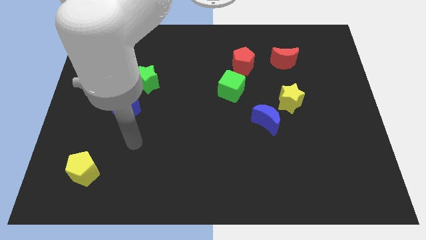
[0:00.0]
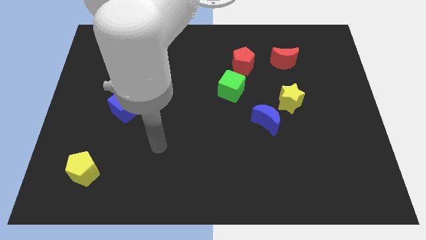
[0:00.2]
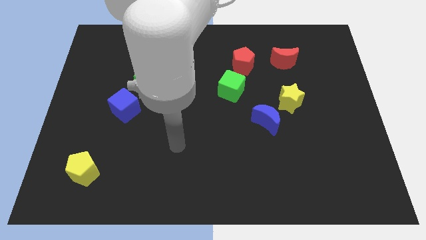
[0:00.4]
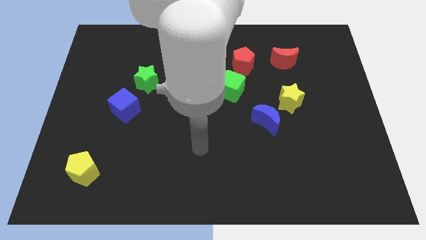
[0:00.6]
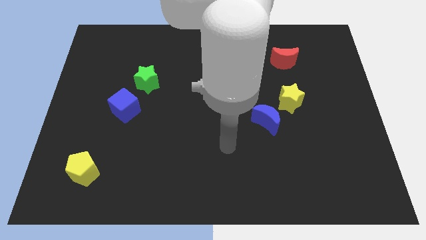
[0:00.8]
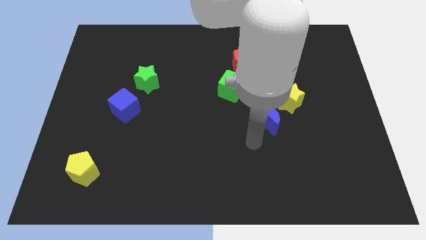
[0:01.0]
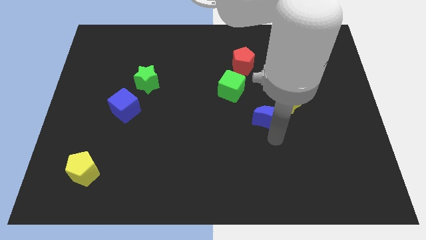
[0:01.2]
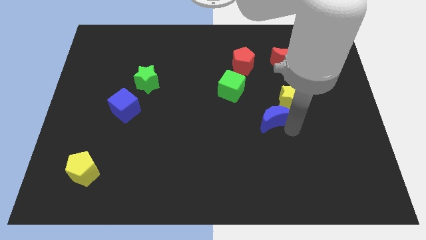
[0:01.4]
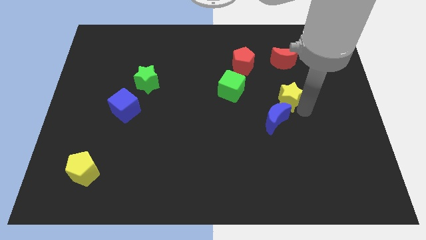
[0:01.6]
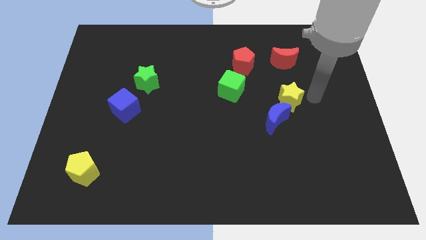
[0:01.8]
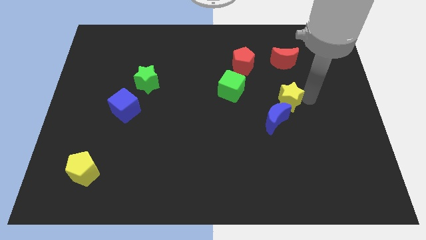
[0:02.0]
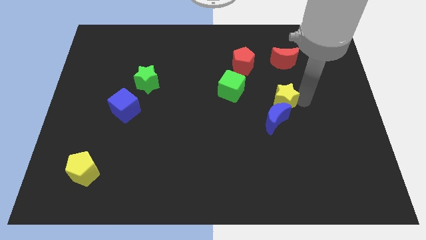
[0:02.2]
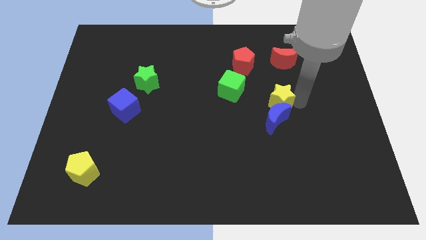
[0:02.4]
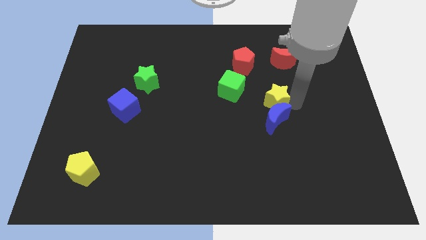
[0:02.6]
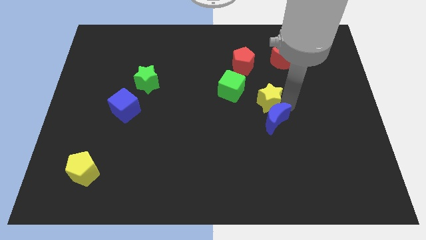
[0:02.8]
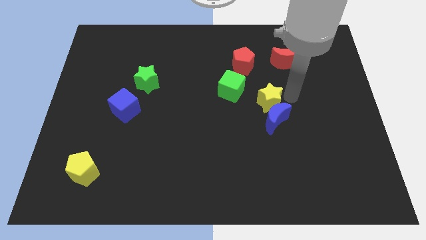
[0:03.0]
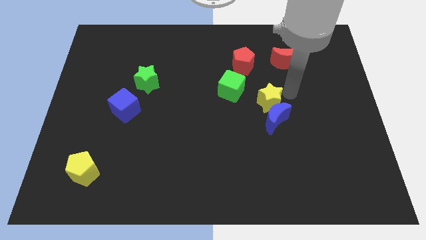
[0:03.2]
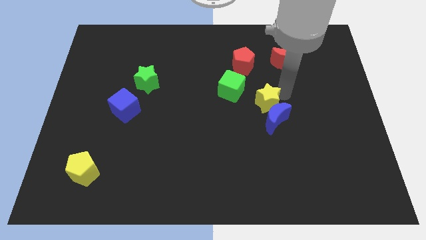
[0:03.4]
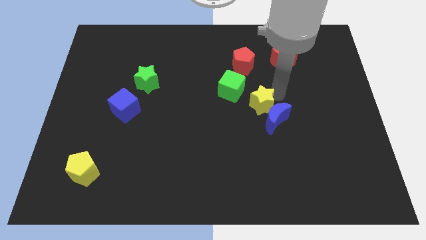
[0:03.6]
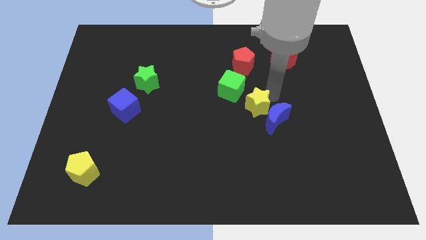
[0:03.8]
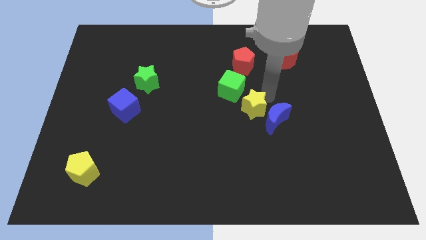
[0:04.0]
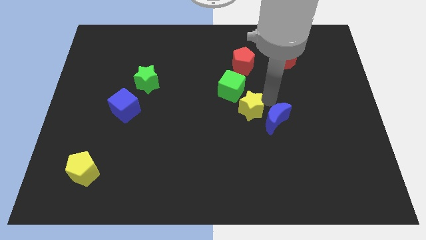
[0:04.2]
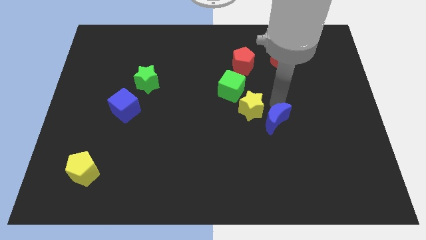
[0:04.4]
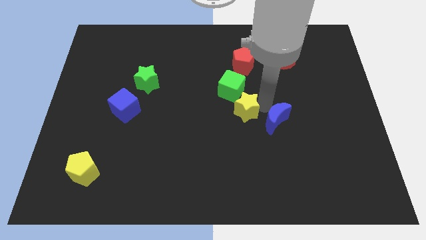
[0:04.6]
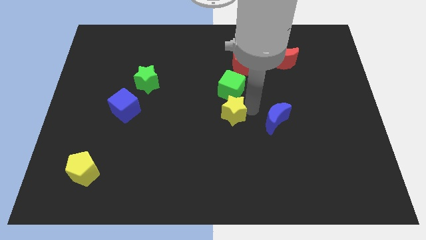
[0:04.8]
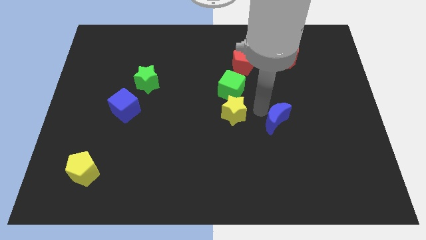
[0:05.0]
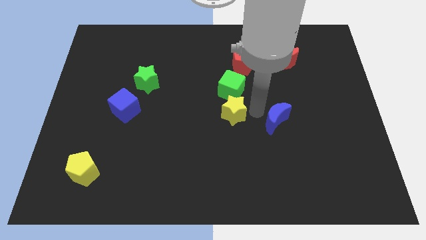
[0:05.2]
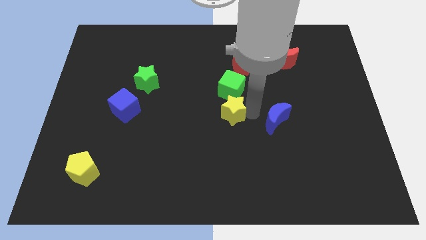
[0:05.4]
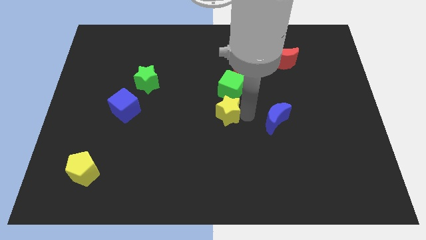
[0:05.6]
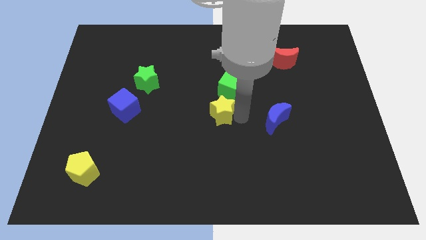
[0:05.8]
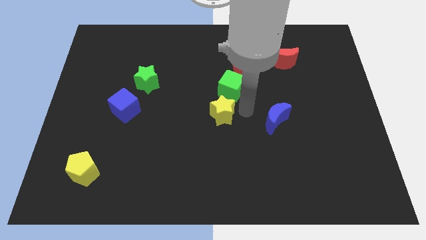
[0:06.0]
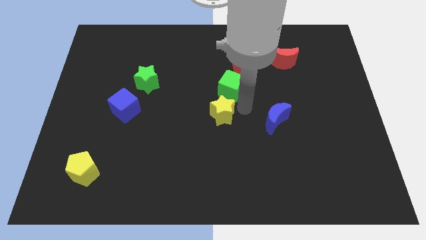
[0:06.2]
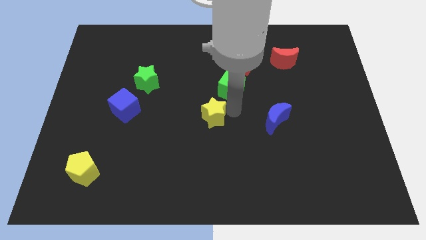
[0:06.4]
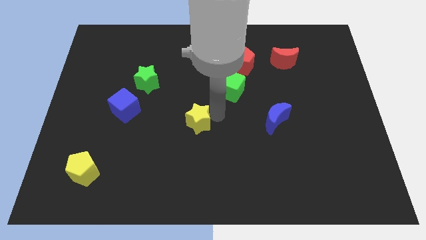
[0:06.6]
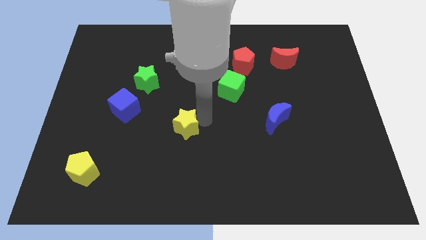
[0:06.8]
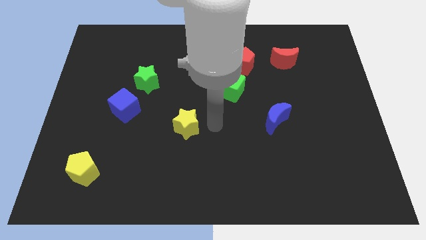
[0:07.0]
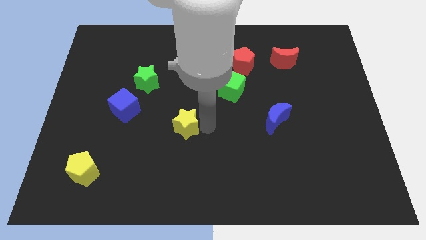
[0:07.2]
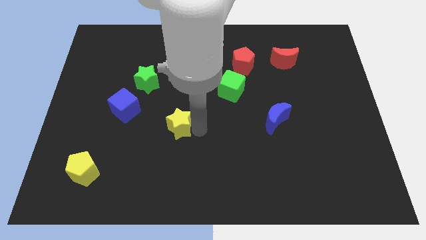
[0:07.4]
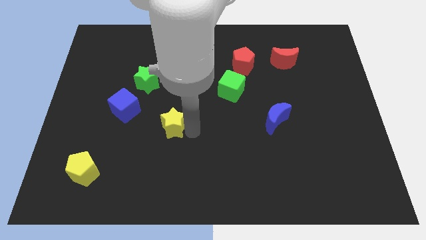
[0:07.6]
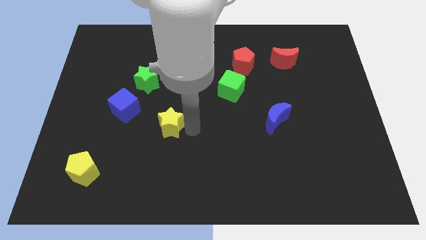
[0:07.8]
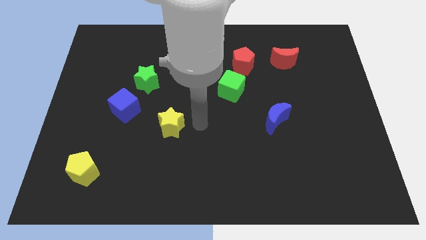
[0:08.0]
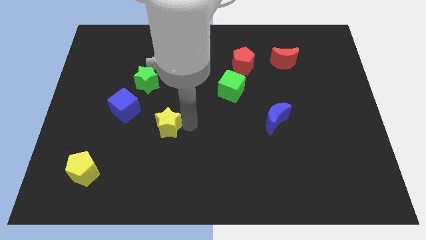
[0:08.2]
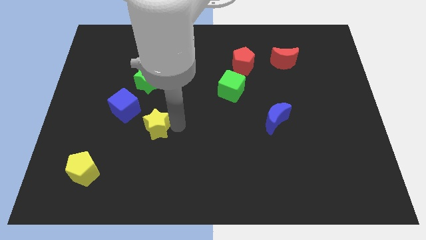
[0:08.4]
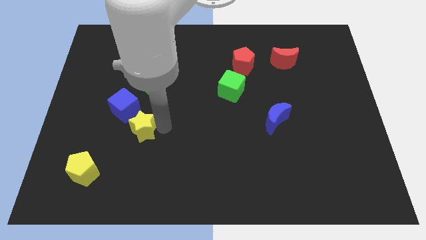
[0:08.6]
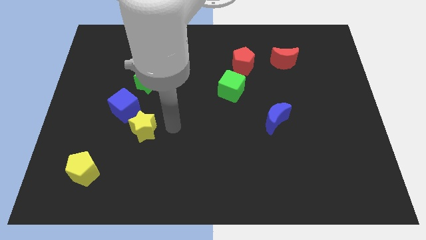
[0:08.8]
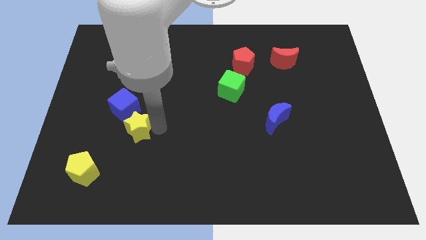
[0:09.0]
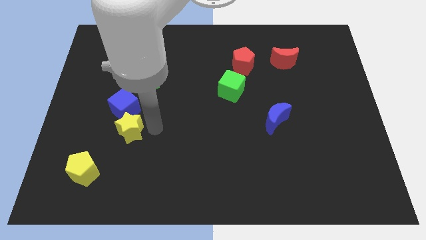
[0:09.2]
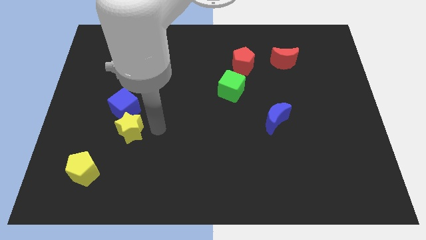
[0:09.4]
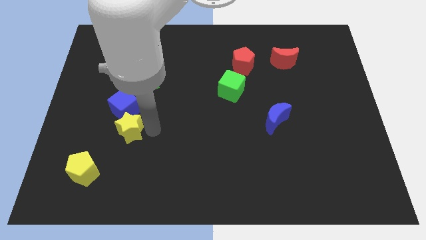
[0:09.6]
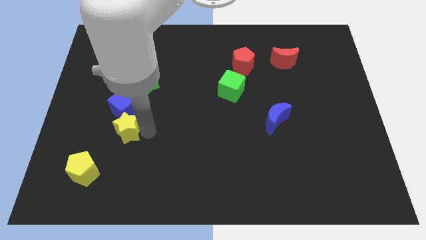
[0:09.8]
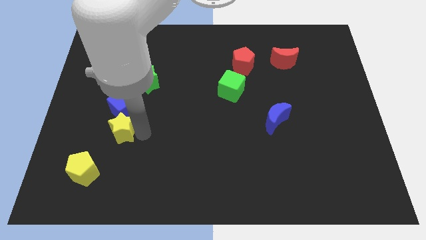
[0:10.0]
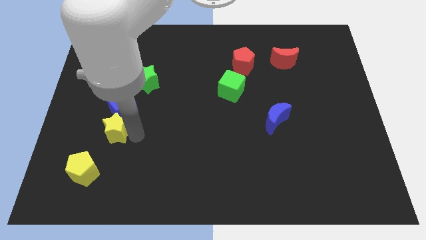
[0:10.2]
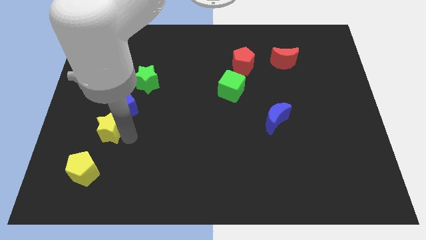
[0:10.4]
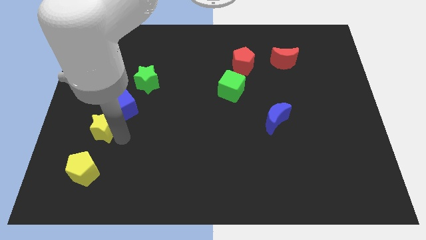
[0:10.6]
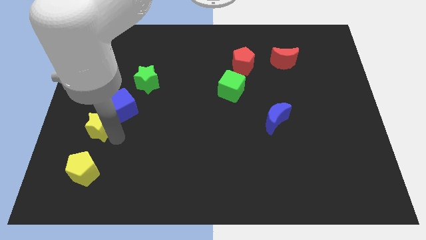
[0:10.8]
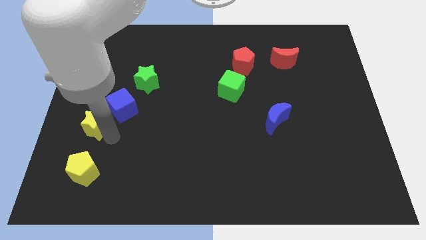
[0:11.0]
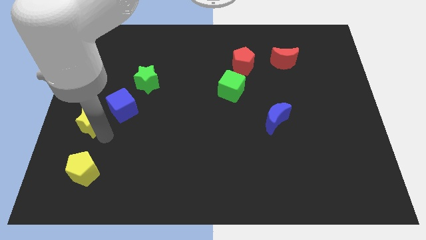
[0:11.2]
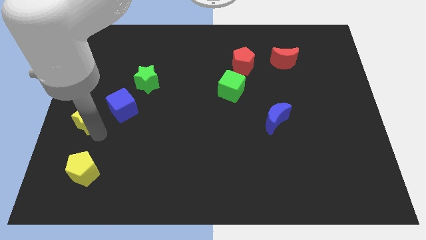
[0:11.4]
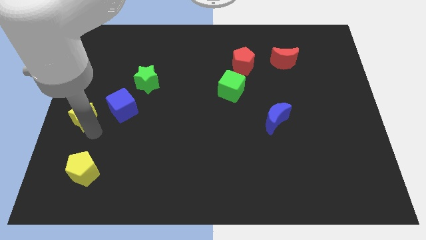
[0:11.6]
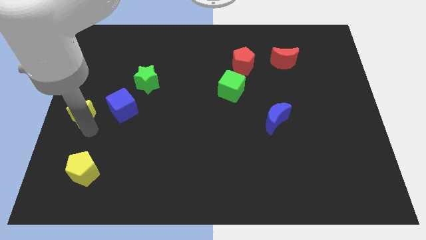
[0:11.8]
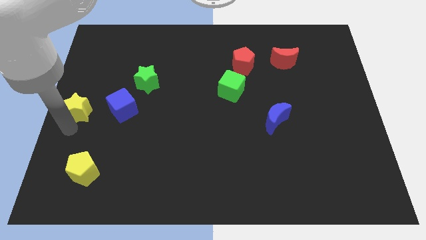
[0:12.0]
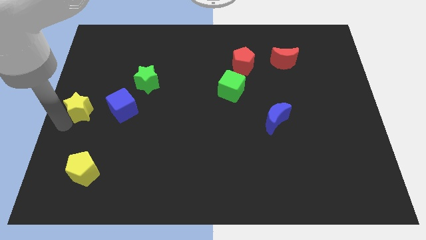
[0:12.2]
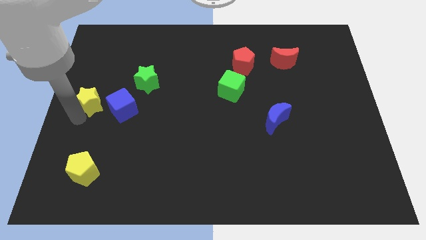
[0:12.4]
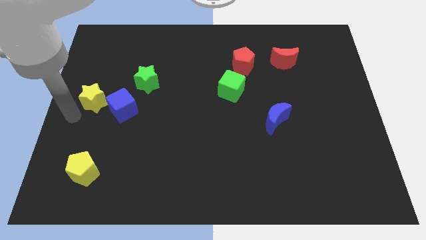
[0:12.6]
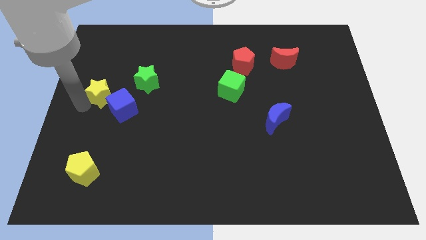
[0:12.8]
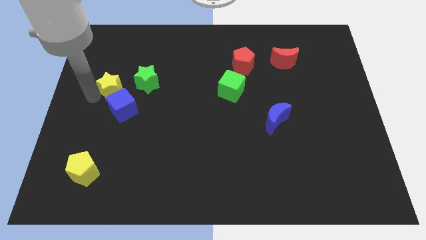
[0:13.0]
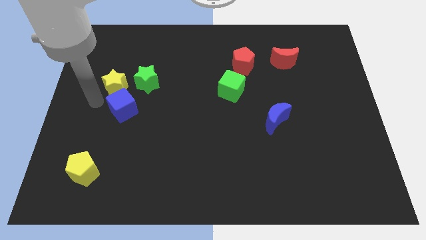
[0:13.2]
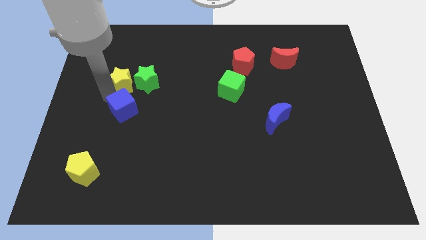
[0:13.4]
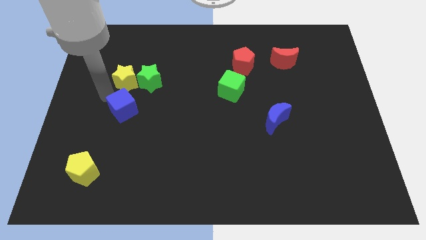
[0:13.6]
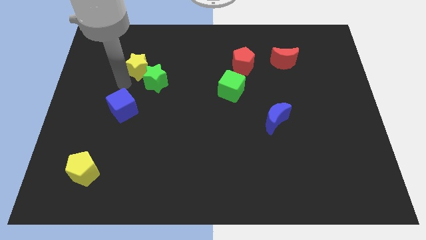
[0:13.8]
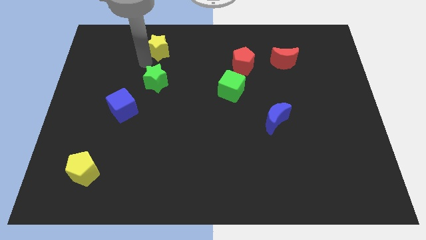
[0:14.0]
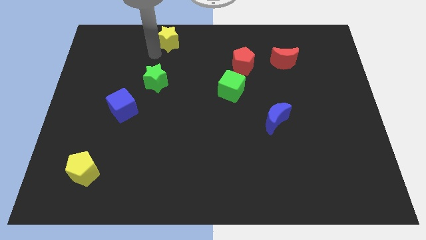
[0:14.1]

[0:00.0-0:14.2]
put the yellow star to the top side
